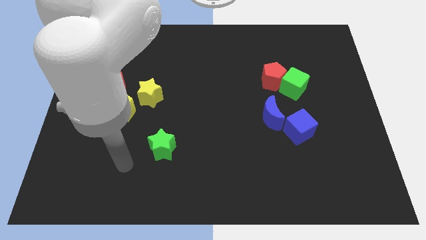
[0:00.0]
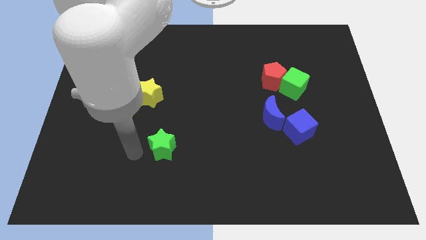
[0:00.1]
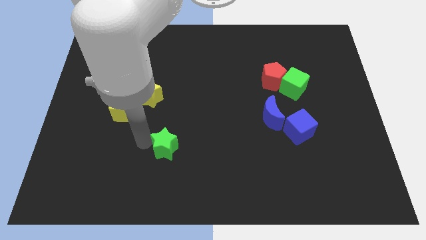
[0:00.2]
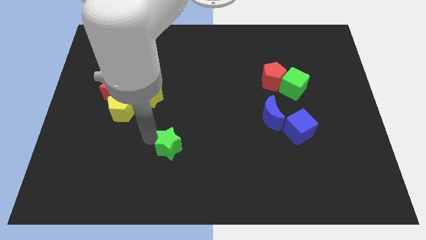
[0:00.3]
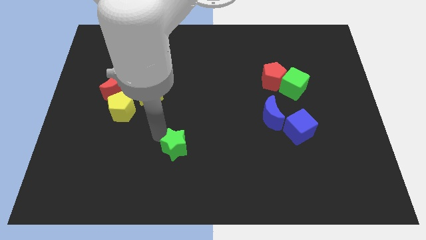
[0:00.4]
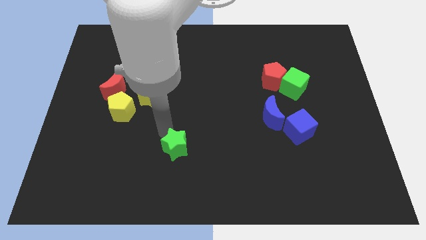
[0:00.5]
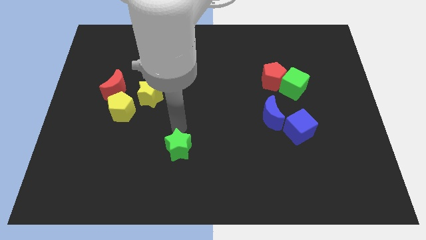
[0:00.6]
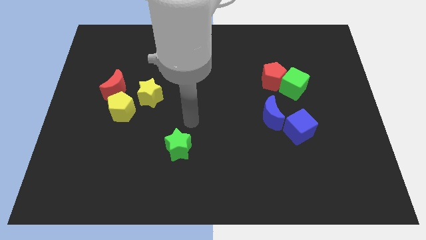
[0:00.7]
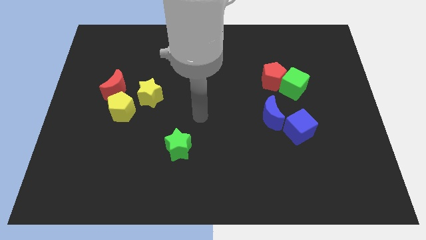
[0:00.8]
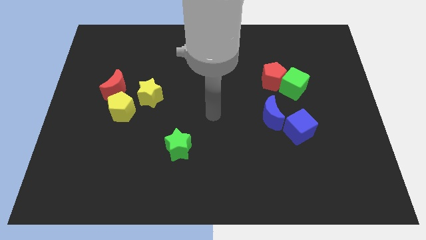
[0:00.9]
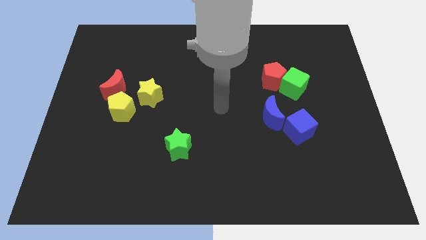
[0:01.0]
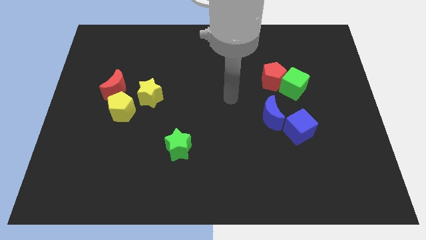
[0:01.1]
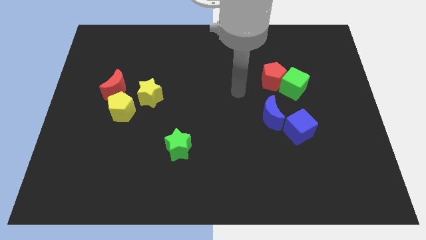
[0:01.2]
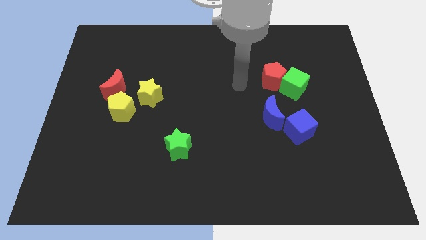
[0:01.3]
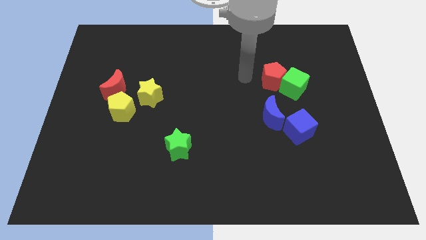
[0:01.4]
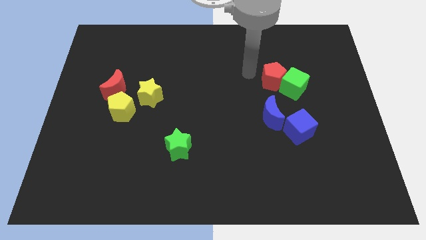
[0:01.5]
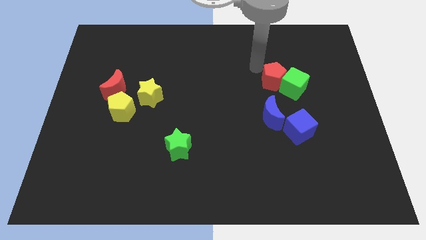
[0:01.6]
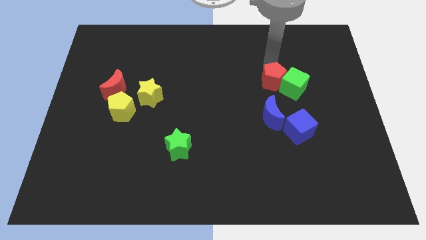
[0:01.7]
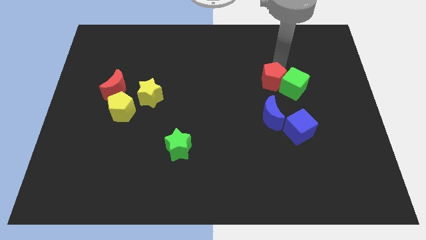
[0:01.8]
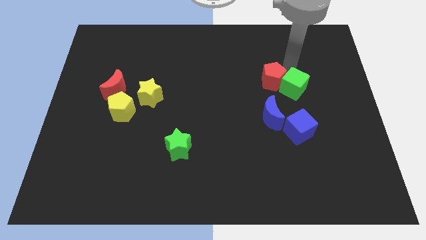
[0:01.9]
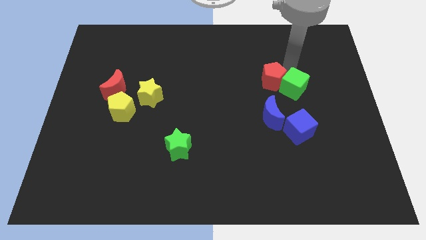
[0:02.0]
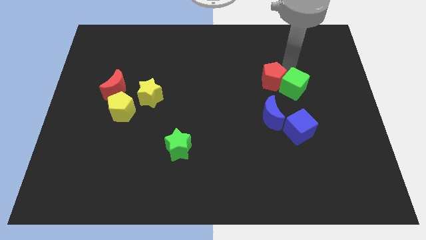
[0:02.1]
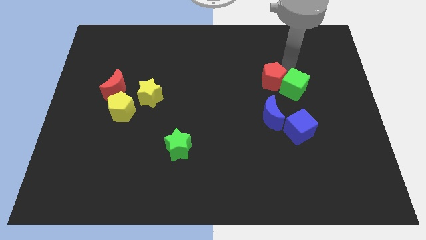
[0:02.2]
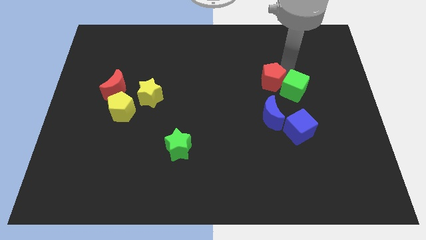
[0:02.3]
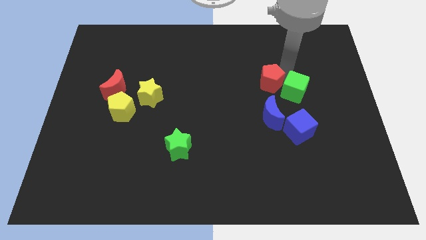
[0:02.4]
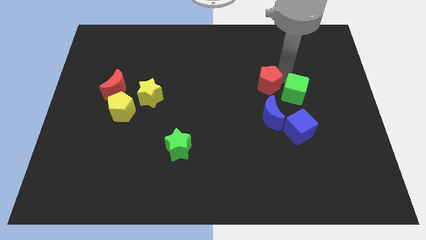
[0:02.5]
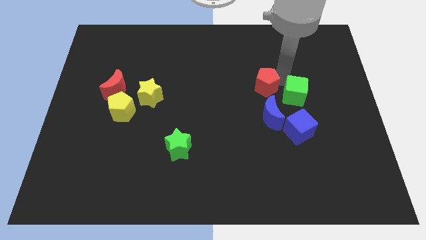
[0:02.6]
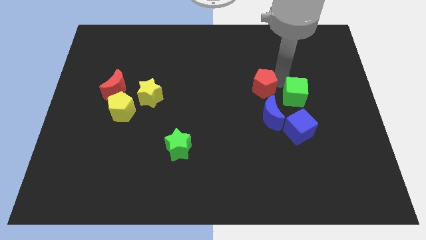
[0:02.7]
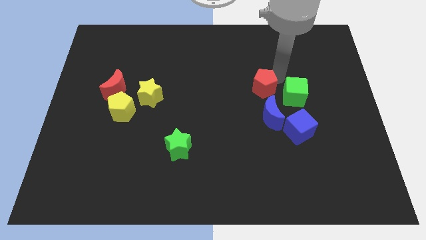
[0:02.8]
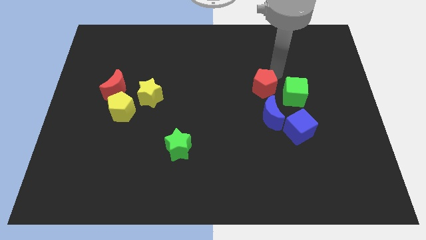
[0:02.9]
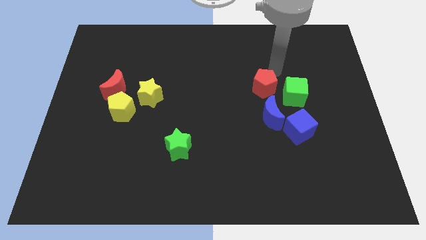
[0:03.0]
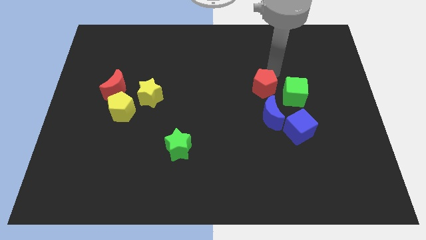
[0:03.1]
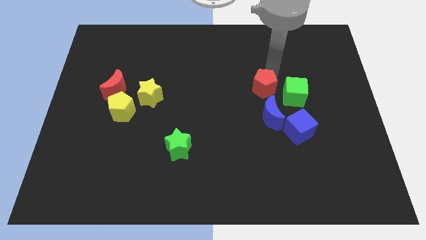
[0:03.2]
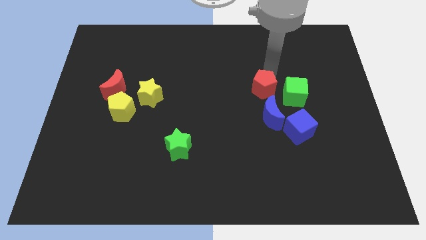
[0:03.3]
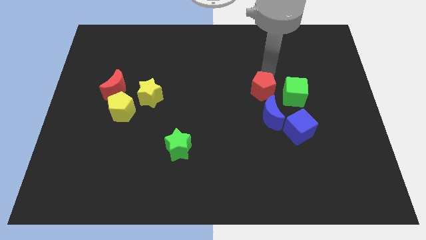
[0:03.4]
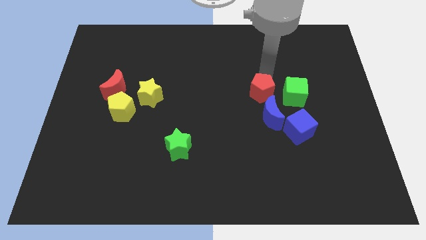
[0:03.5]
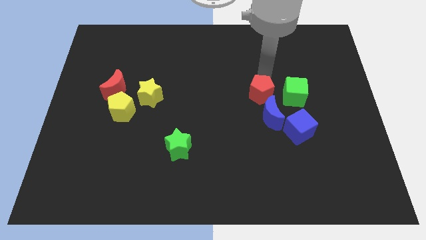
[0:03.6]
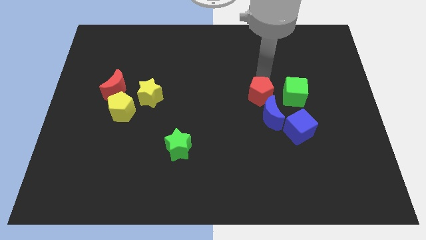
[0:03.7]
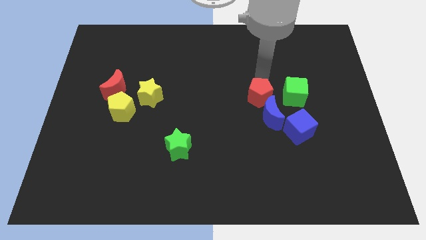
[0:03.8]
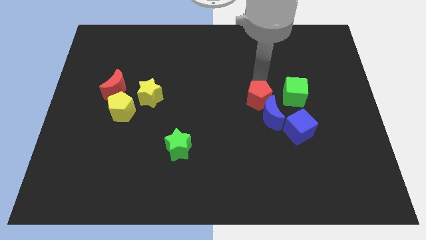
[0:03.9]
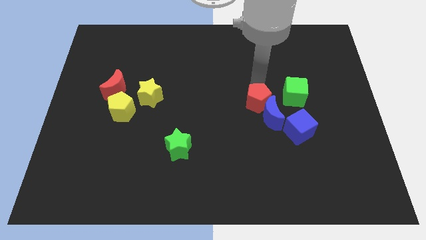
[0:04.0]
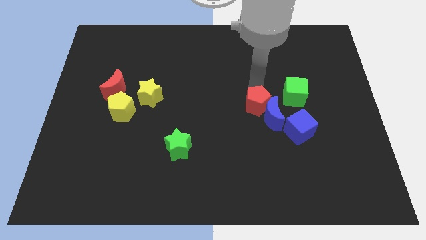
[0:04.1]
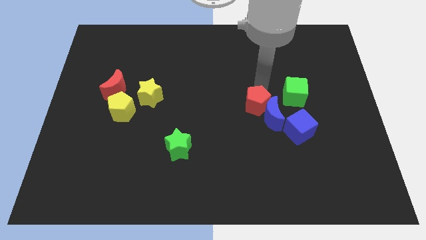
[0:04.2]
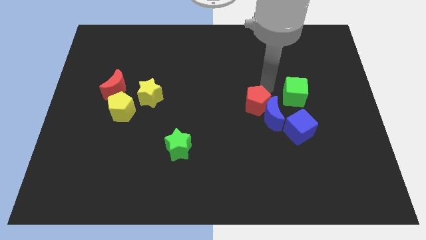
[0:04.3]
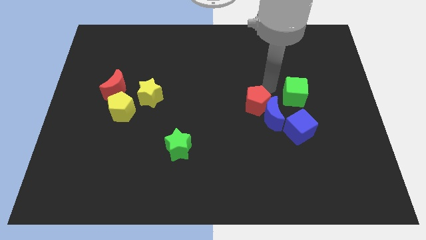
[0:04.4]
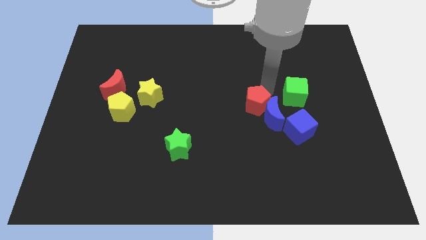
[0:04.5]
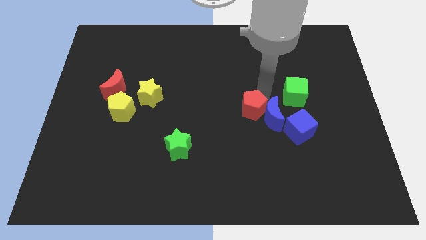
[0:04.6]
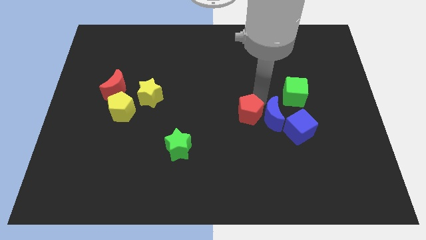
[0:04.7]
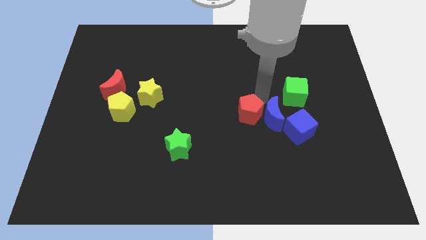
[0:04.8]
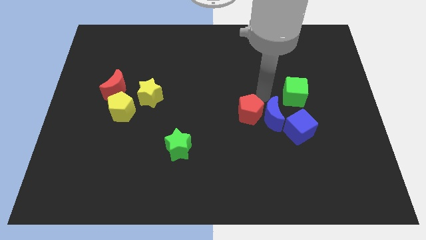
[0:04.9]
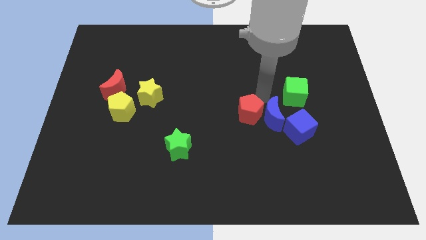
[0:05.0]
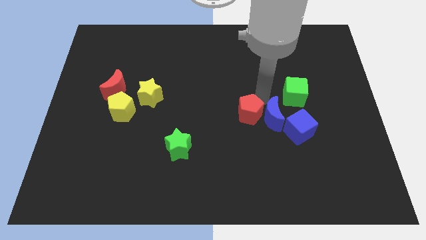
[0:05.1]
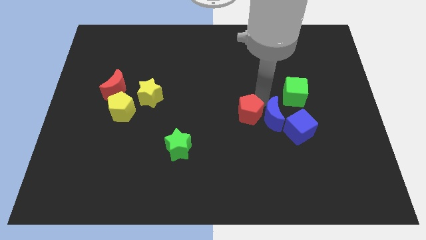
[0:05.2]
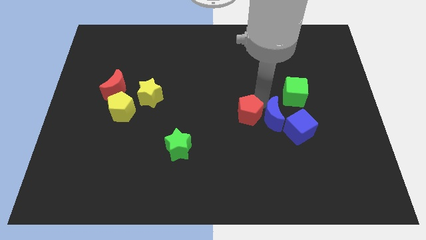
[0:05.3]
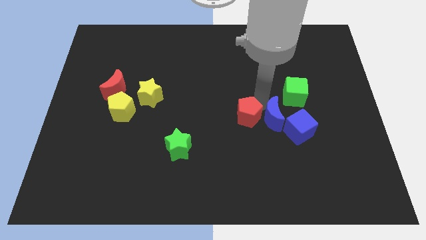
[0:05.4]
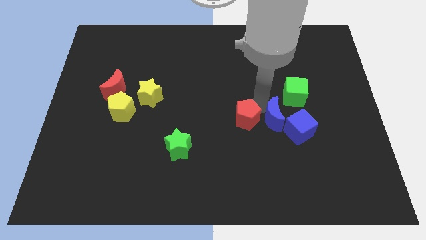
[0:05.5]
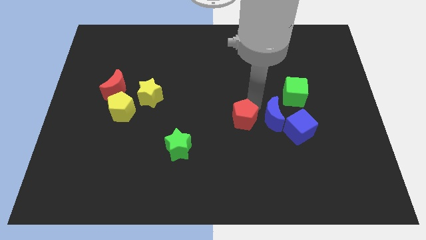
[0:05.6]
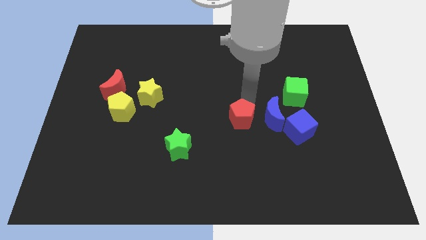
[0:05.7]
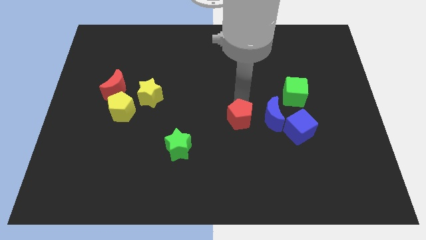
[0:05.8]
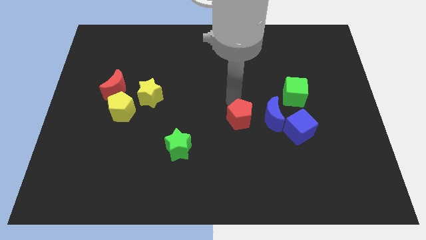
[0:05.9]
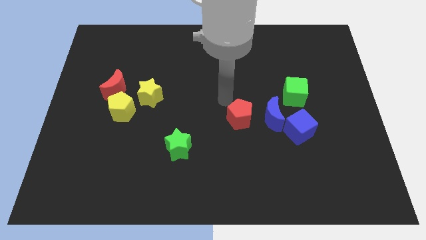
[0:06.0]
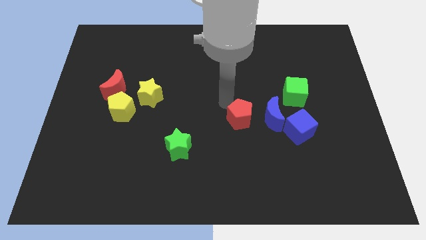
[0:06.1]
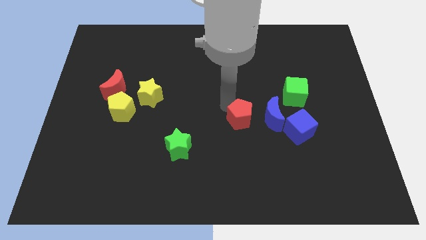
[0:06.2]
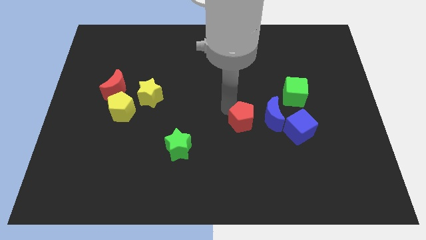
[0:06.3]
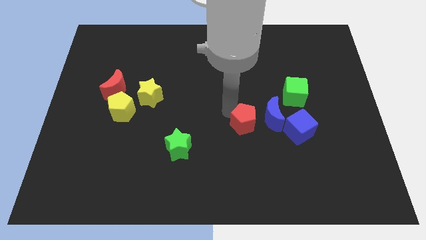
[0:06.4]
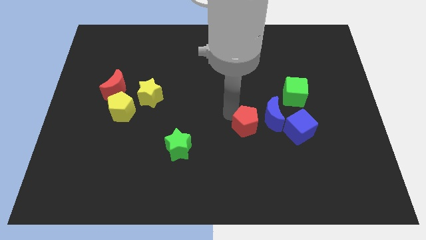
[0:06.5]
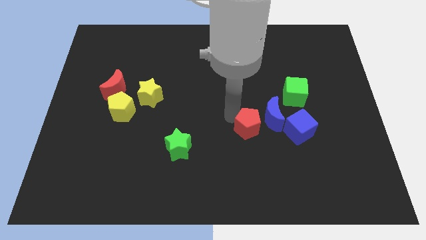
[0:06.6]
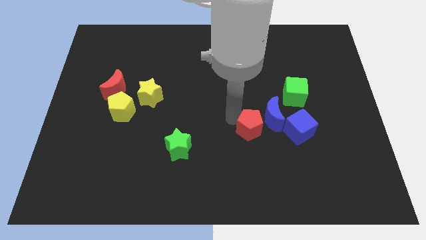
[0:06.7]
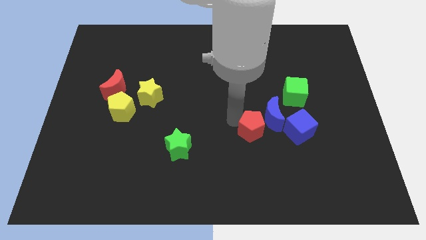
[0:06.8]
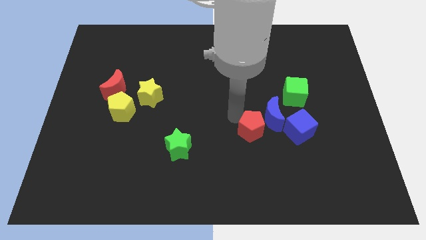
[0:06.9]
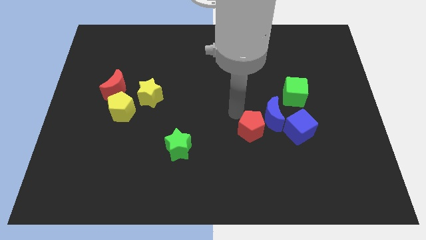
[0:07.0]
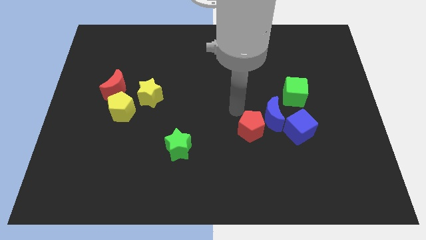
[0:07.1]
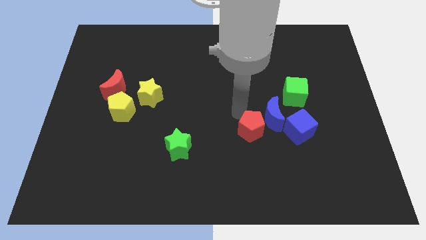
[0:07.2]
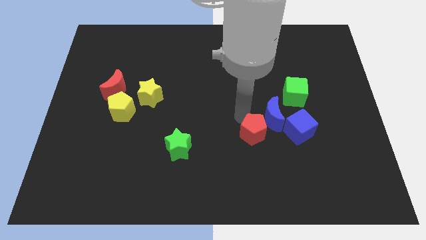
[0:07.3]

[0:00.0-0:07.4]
slide the red pentagon to the bottom of the blue moon
